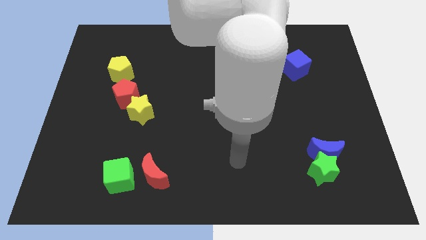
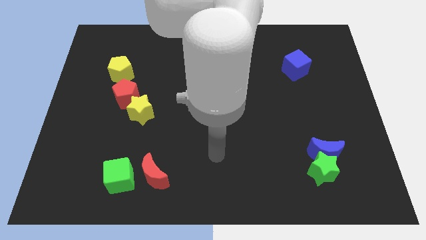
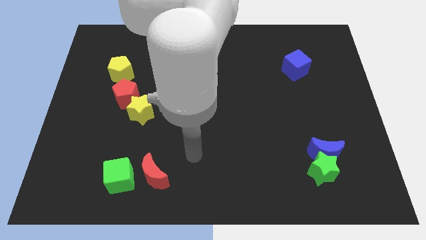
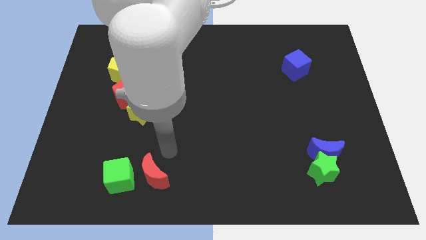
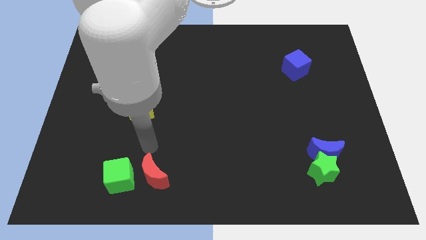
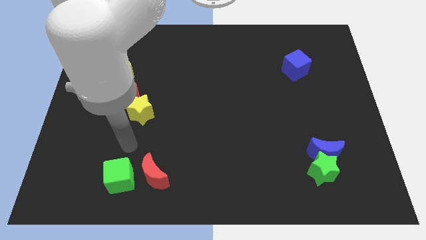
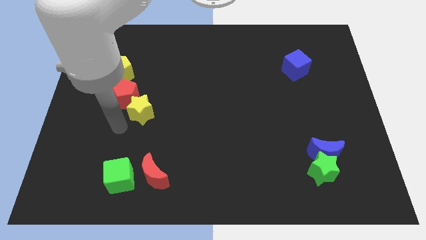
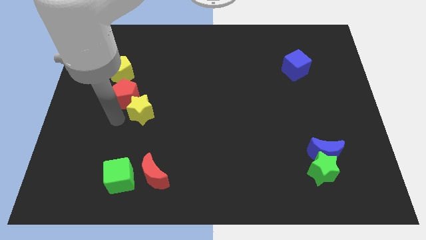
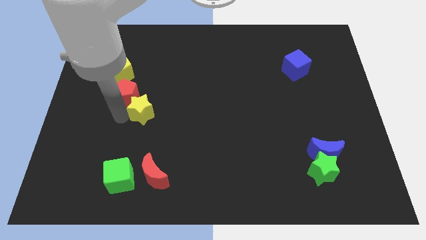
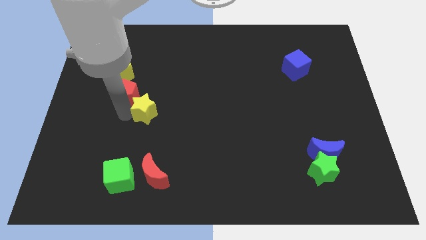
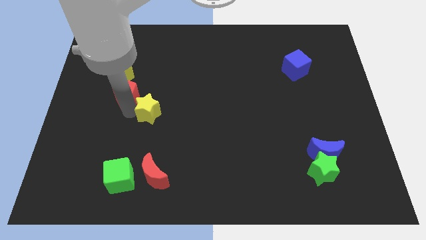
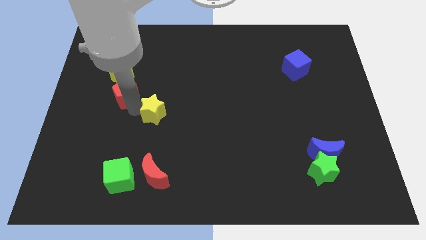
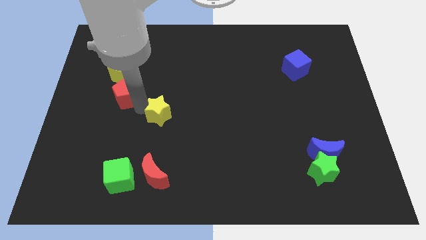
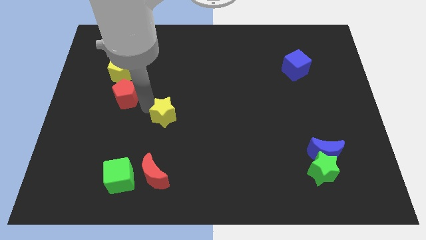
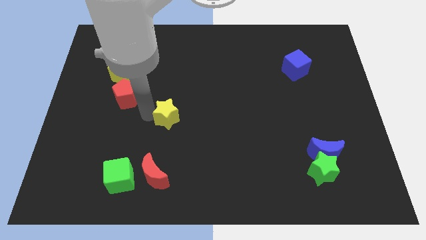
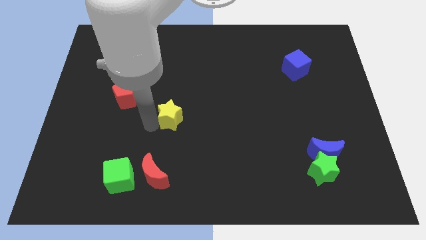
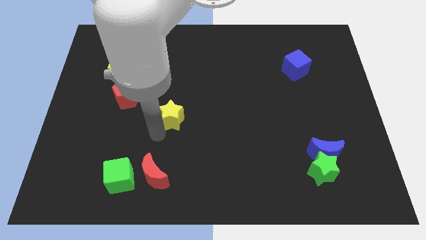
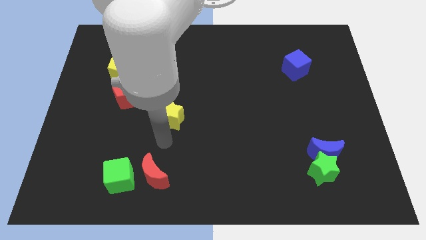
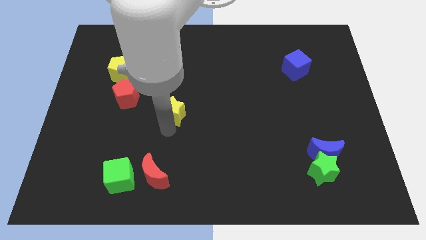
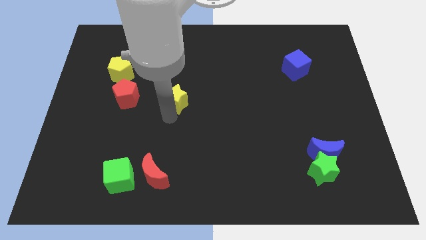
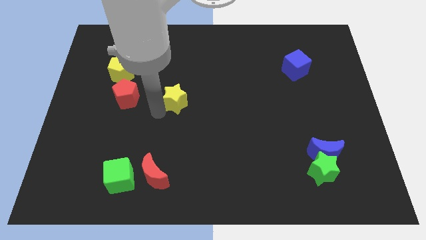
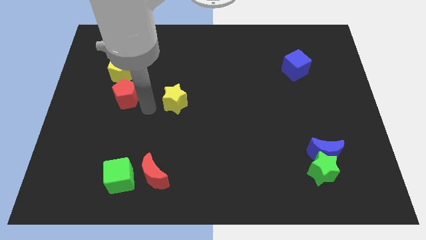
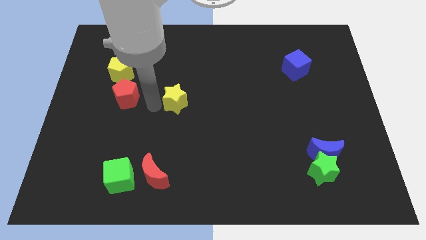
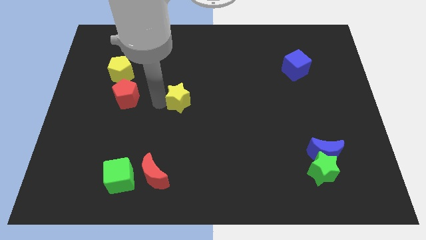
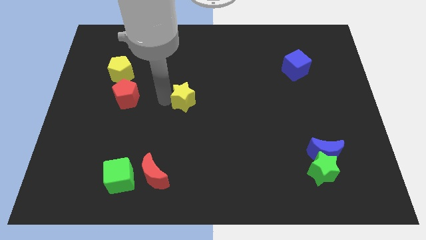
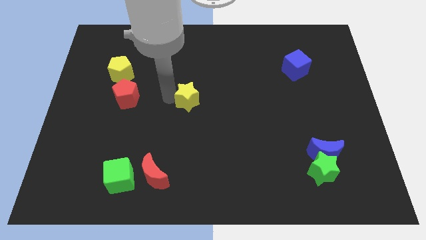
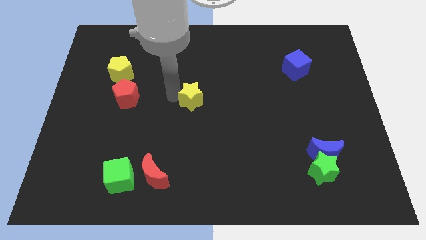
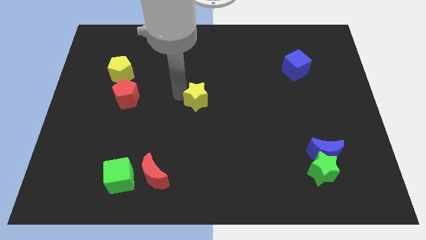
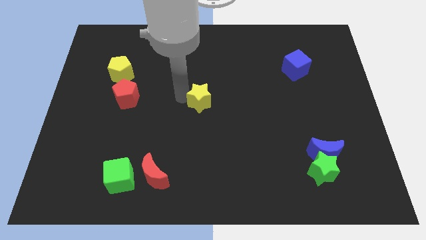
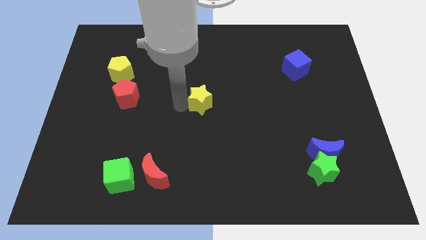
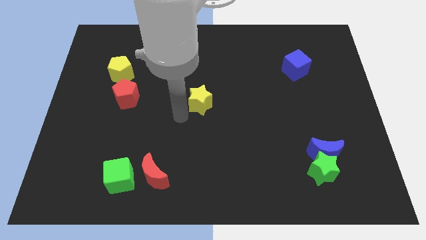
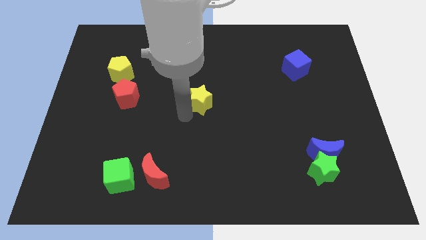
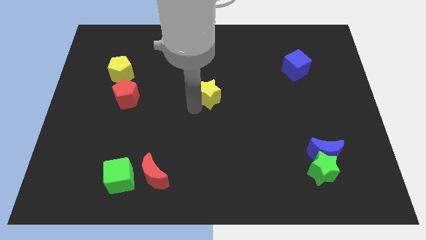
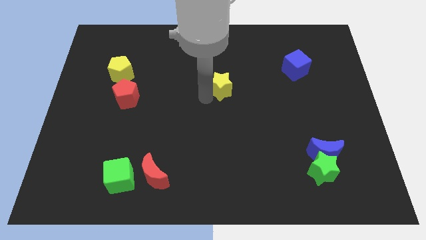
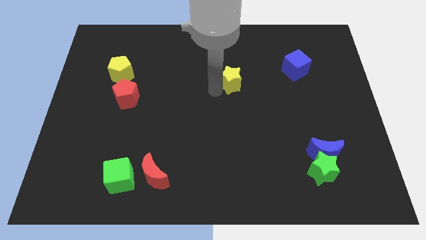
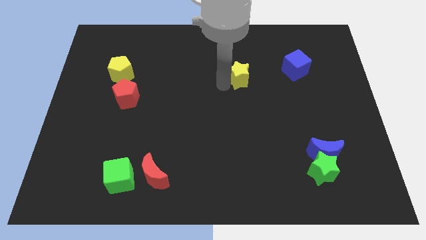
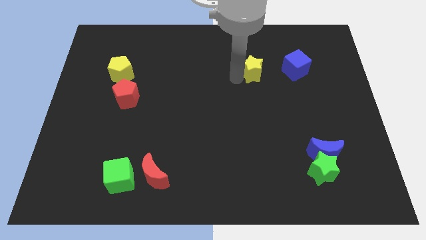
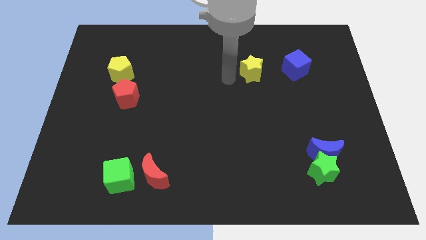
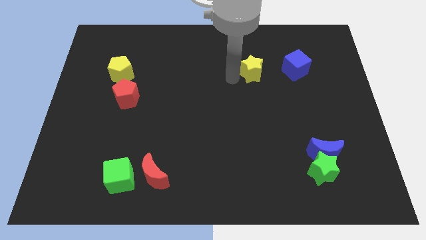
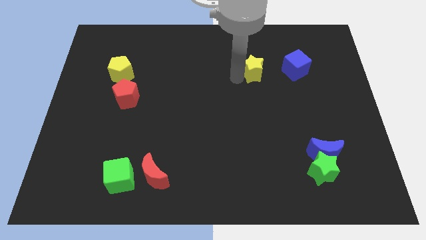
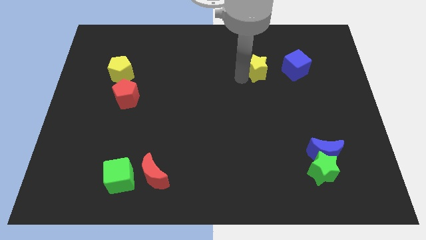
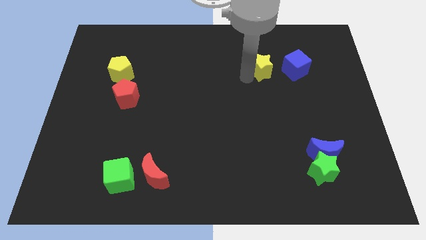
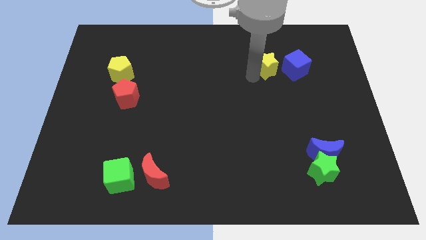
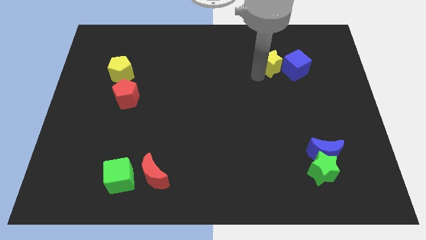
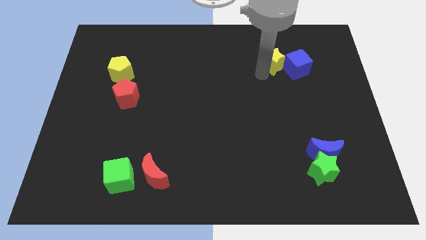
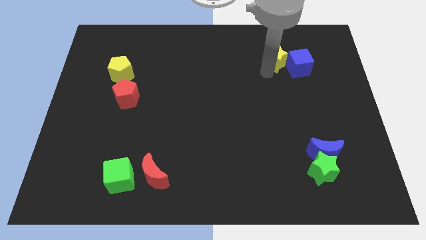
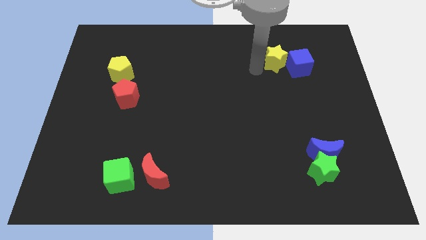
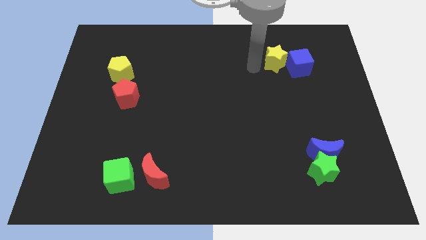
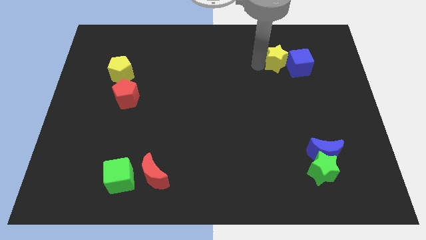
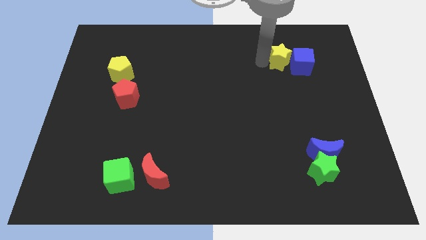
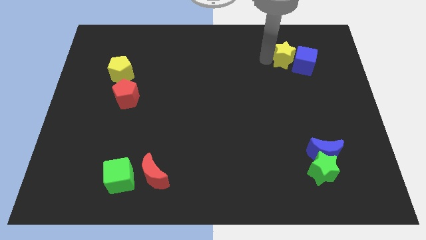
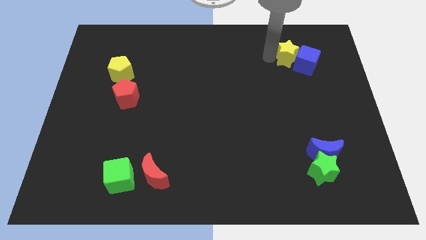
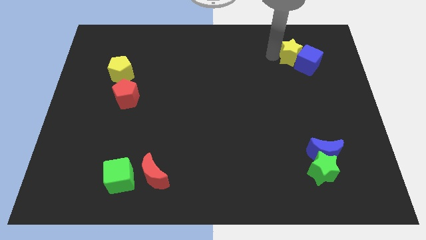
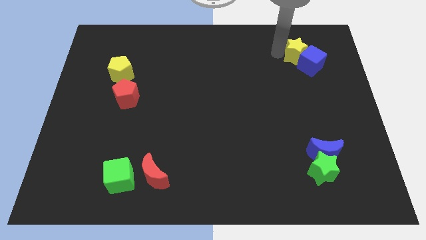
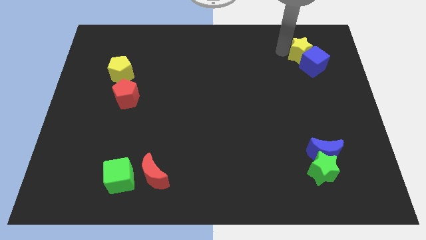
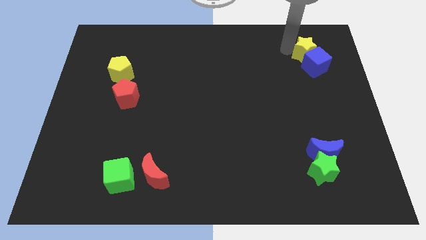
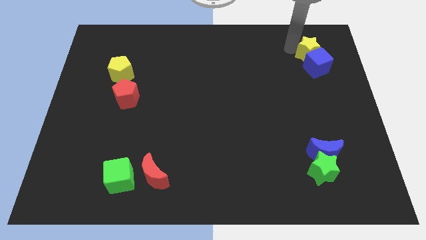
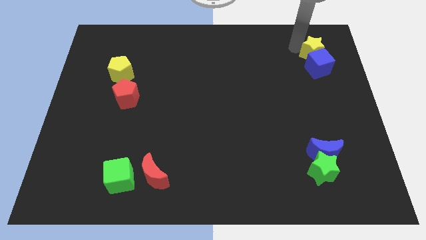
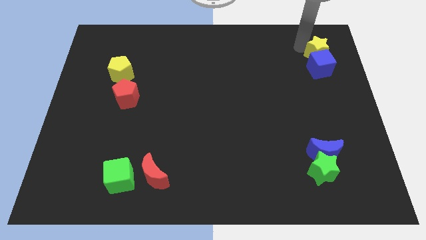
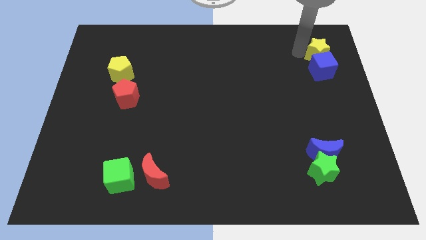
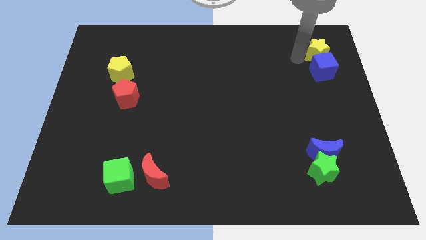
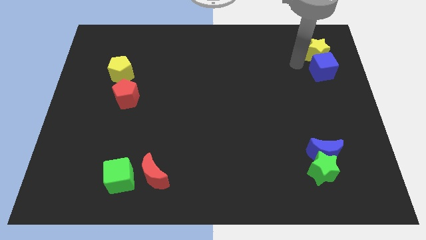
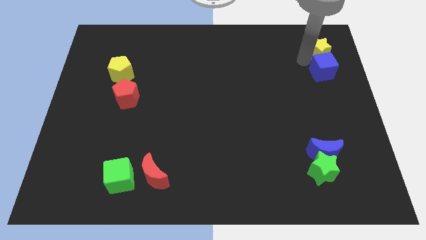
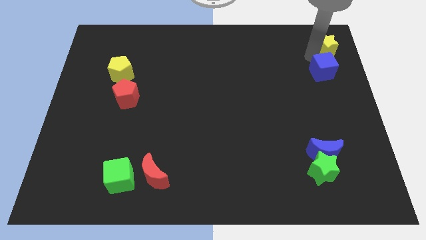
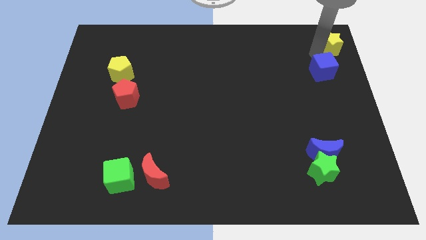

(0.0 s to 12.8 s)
put the yellow star to the top right corner
